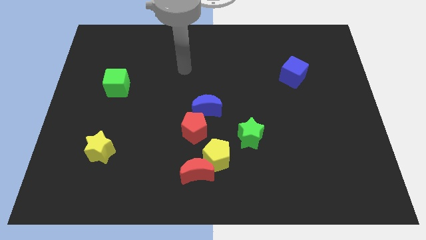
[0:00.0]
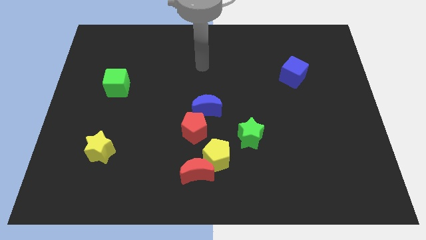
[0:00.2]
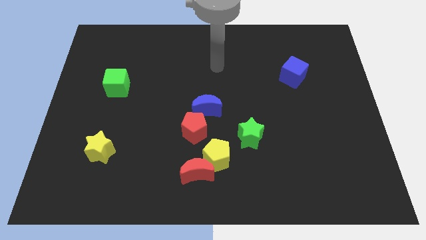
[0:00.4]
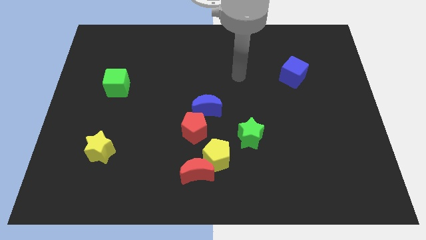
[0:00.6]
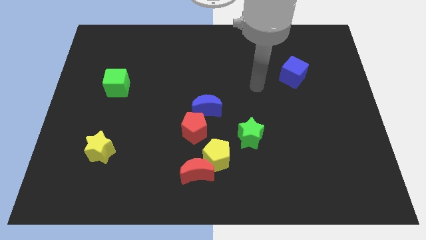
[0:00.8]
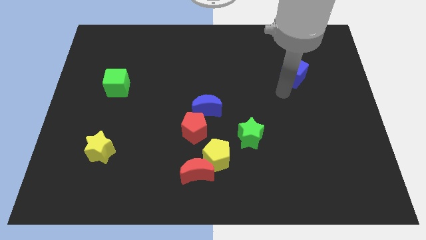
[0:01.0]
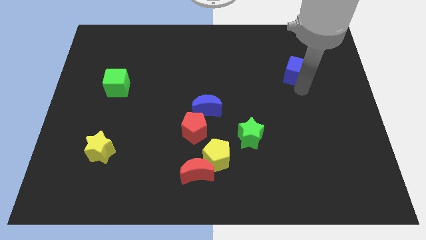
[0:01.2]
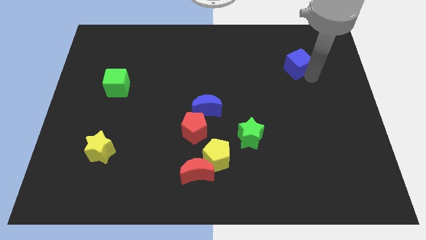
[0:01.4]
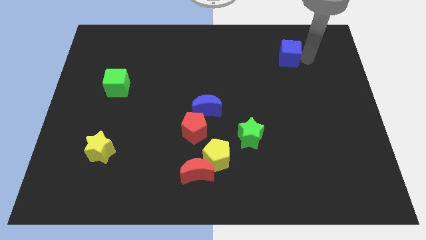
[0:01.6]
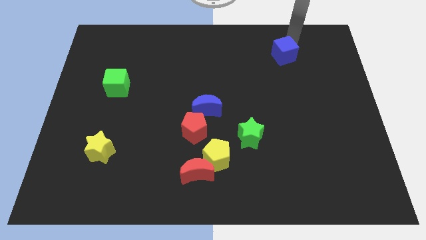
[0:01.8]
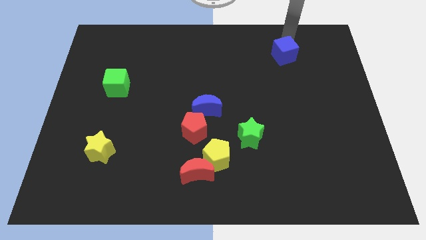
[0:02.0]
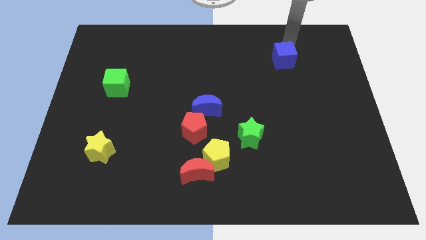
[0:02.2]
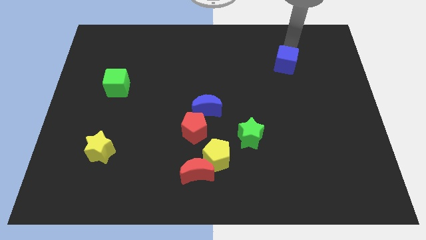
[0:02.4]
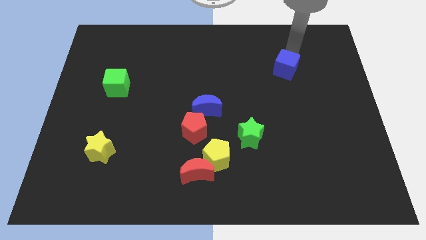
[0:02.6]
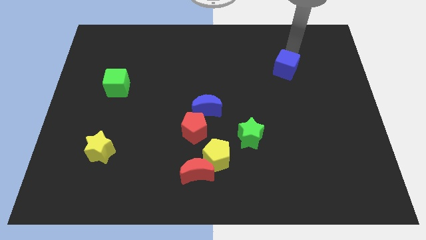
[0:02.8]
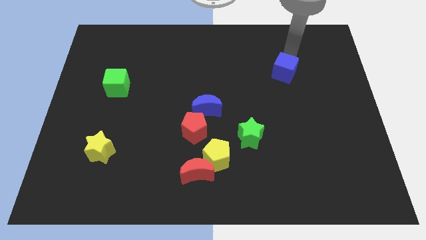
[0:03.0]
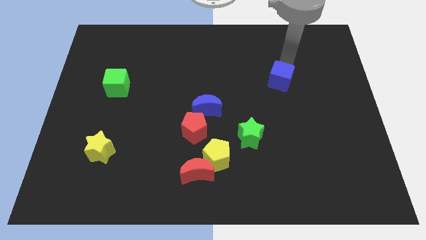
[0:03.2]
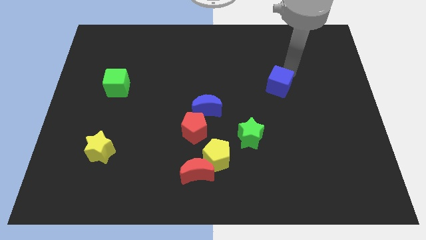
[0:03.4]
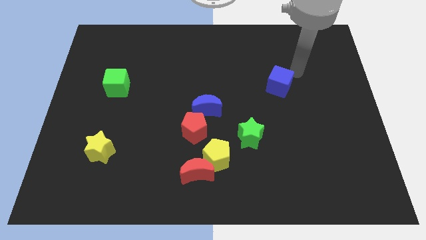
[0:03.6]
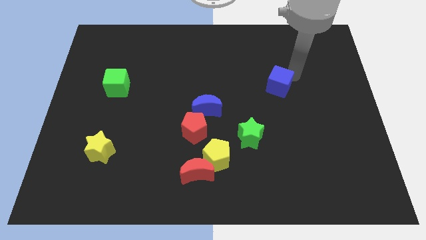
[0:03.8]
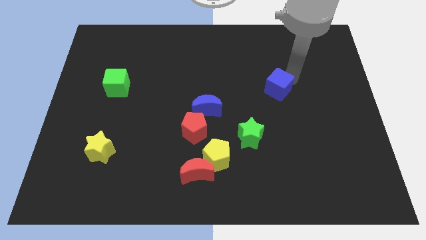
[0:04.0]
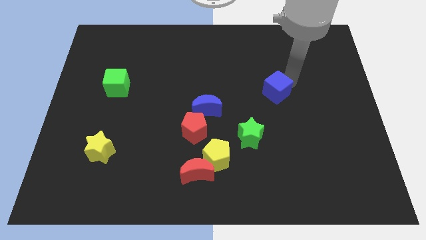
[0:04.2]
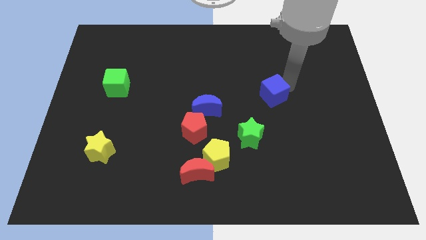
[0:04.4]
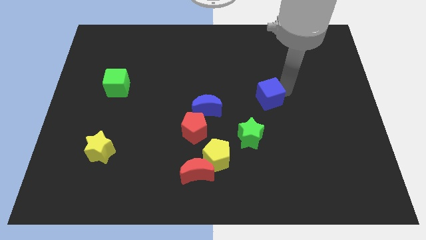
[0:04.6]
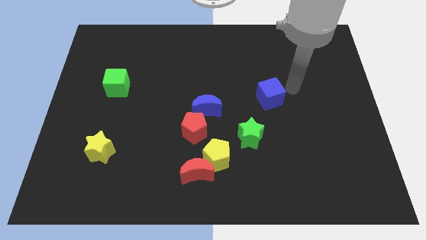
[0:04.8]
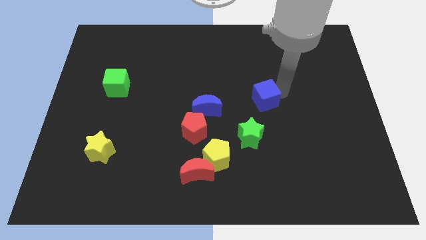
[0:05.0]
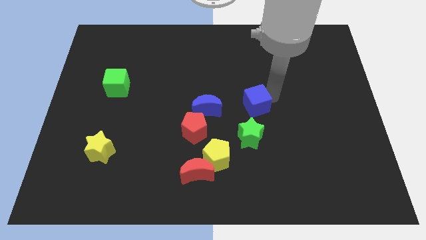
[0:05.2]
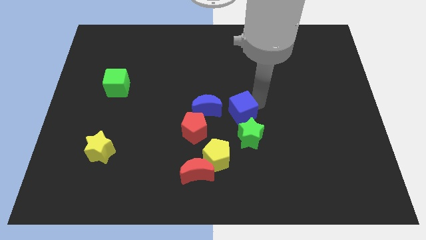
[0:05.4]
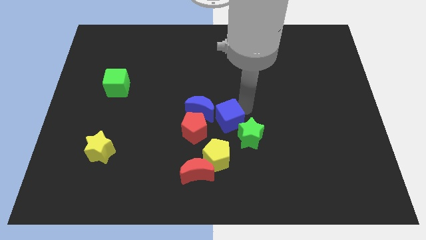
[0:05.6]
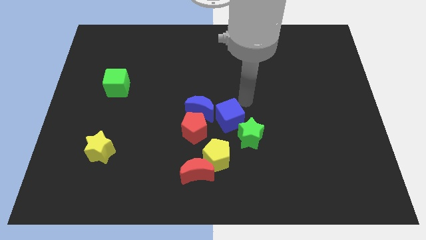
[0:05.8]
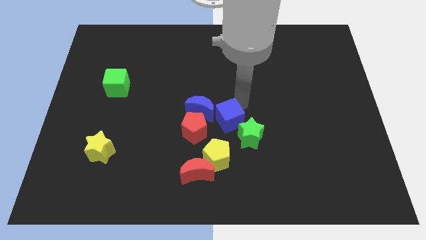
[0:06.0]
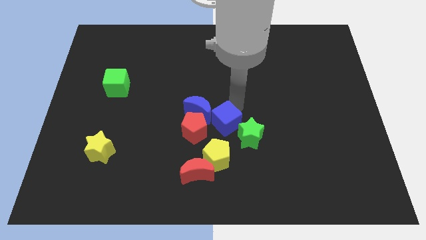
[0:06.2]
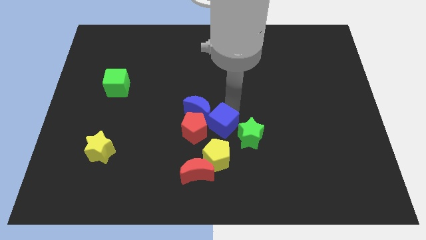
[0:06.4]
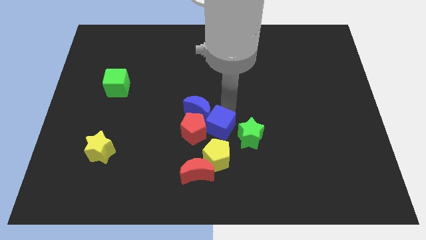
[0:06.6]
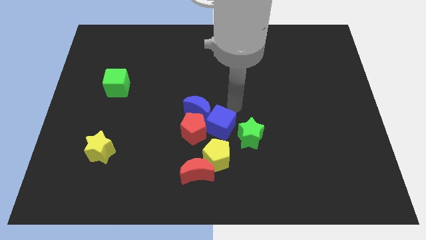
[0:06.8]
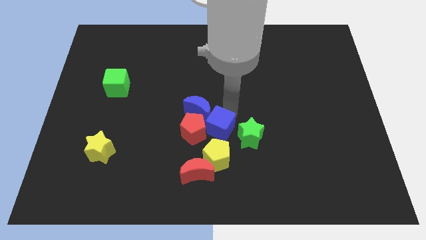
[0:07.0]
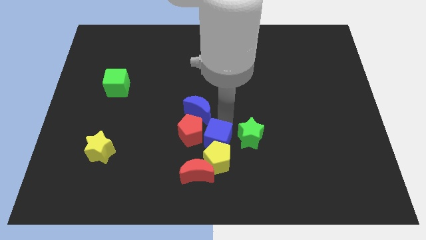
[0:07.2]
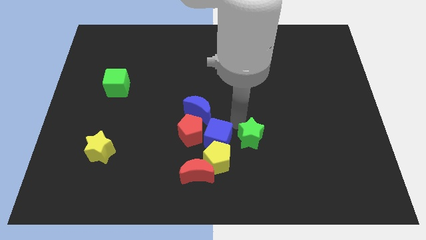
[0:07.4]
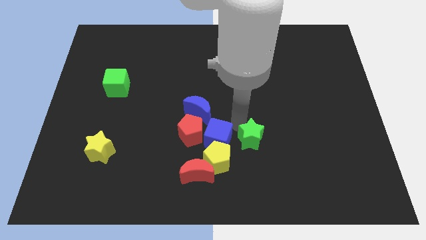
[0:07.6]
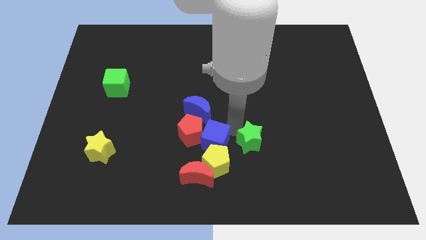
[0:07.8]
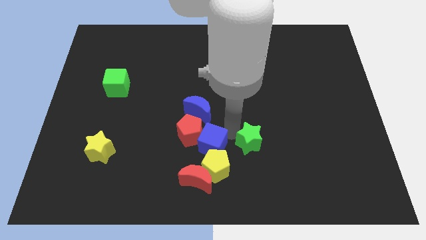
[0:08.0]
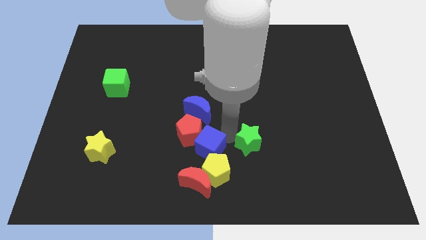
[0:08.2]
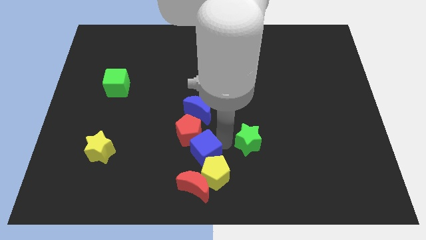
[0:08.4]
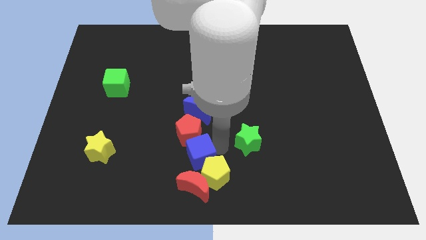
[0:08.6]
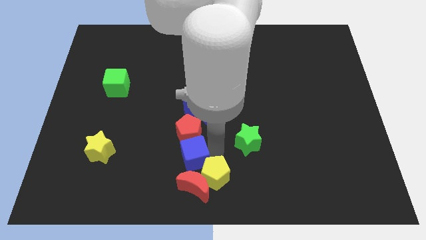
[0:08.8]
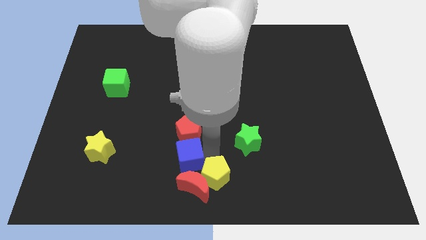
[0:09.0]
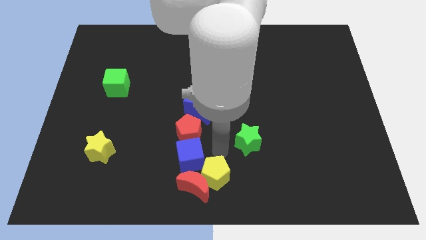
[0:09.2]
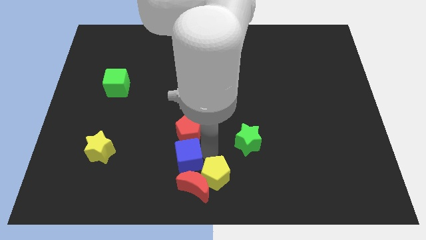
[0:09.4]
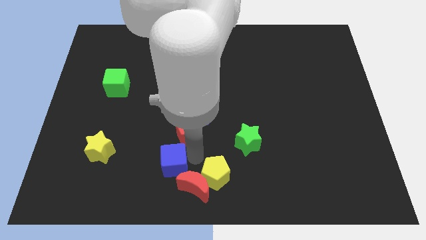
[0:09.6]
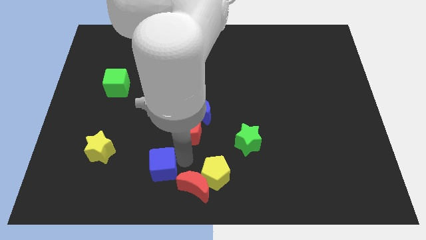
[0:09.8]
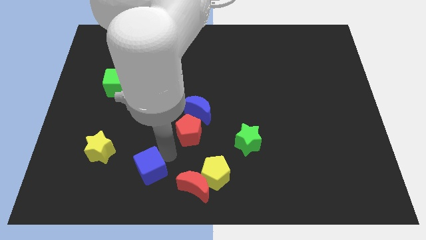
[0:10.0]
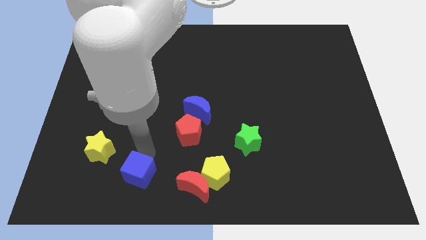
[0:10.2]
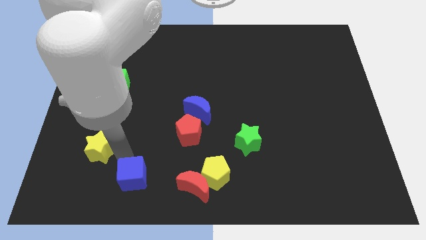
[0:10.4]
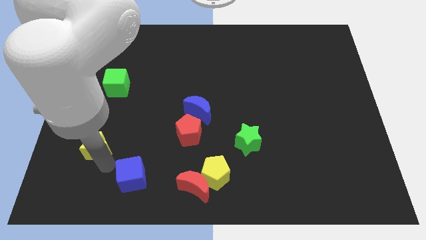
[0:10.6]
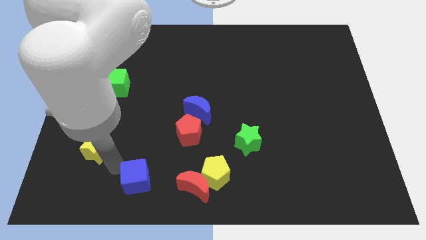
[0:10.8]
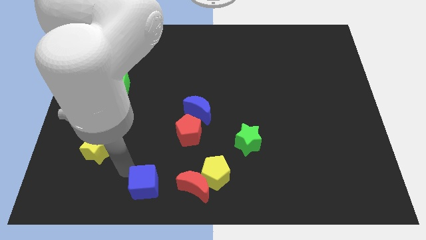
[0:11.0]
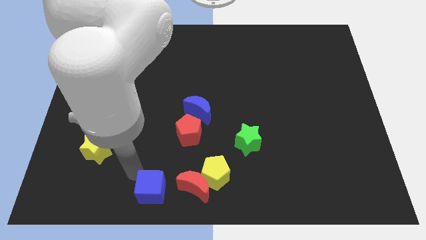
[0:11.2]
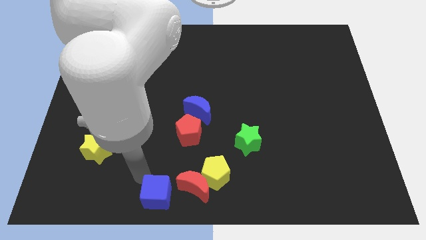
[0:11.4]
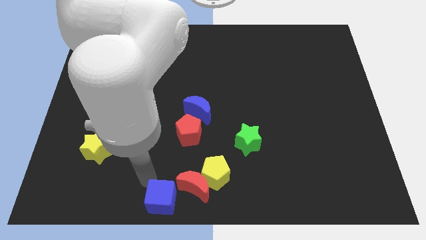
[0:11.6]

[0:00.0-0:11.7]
slide the blue cube diagonally down and to the left of the yellow pentagon

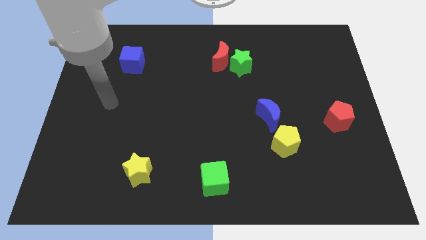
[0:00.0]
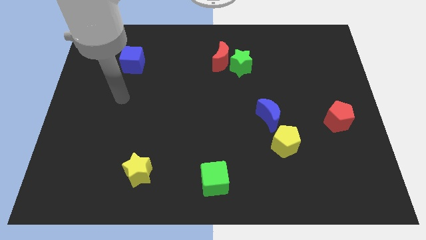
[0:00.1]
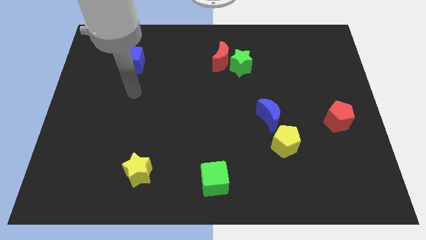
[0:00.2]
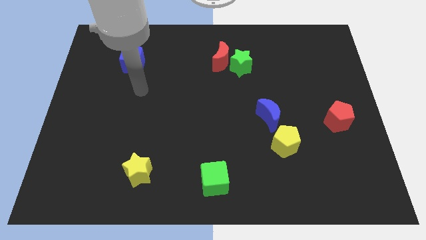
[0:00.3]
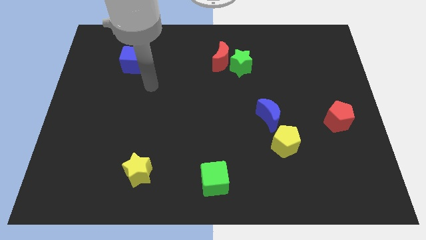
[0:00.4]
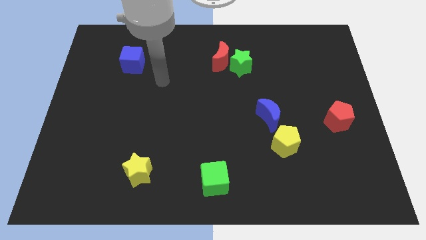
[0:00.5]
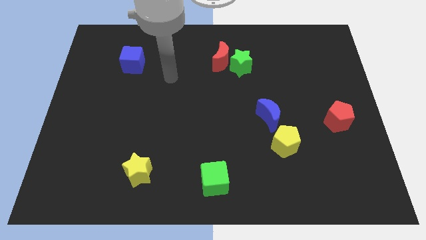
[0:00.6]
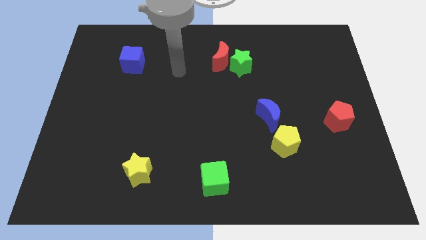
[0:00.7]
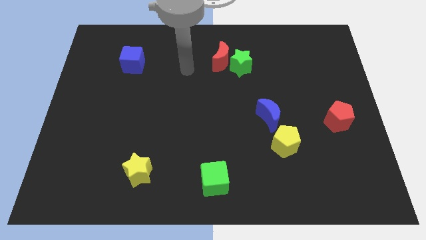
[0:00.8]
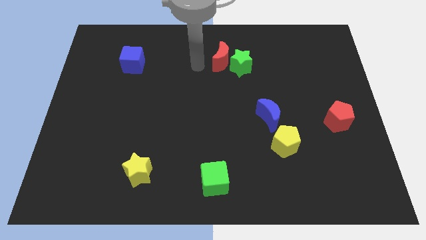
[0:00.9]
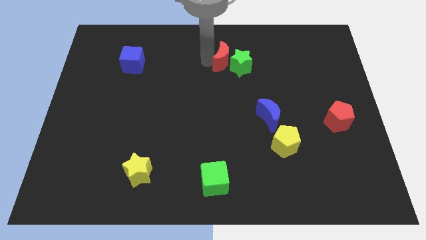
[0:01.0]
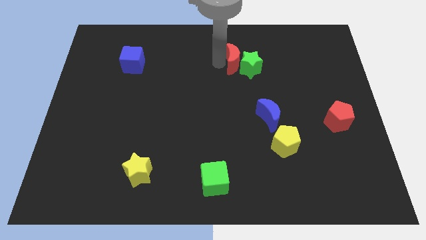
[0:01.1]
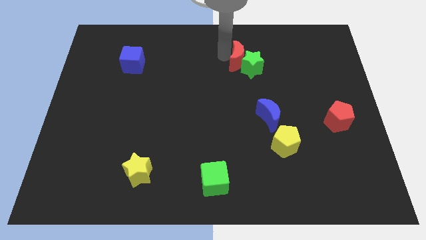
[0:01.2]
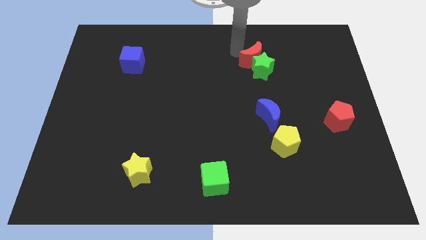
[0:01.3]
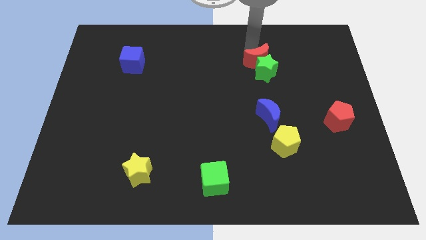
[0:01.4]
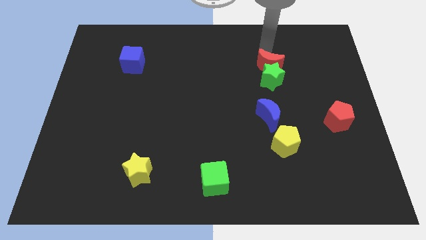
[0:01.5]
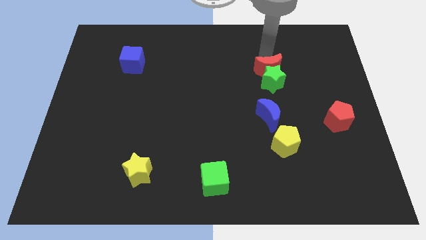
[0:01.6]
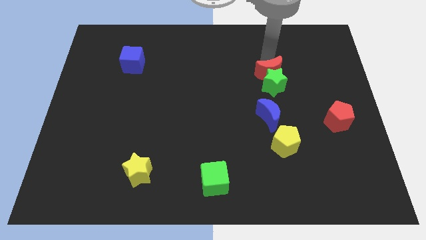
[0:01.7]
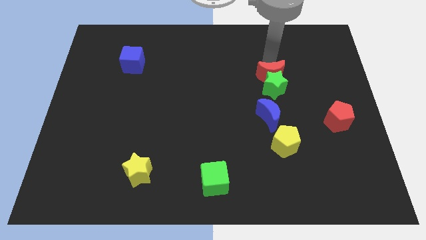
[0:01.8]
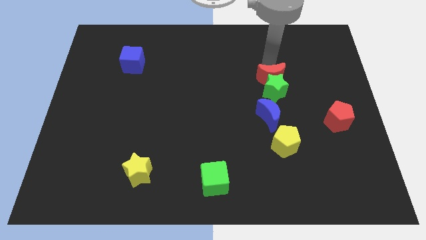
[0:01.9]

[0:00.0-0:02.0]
put the green star above the yellow pentagon

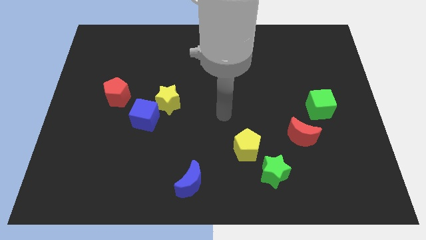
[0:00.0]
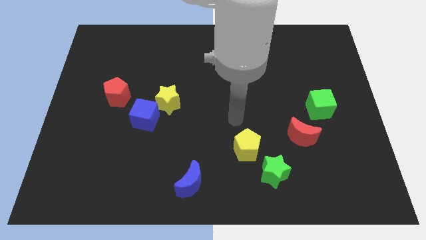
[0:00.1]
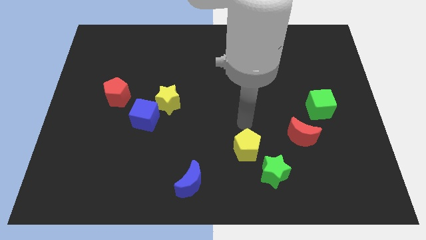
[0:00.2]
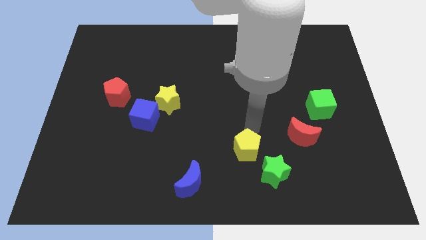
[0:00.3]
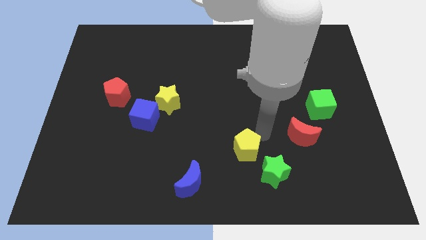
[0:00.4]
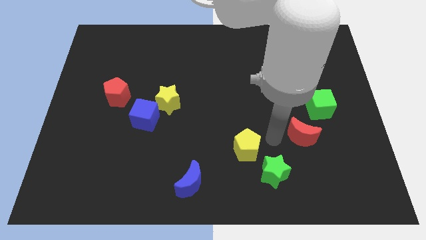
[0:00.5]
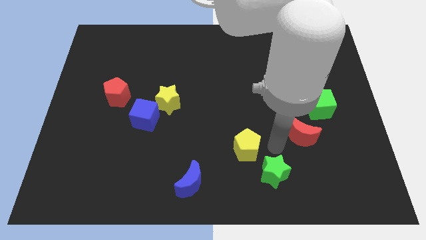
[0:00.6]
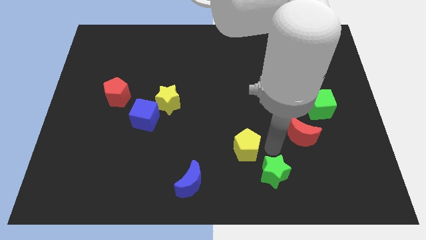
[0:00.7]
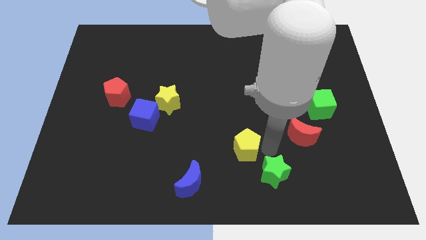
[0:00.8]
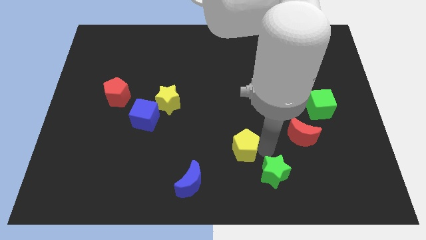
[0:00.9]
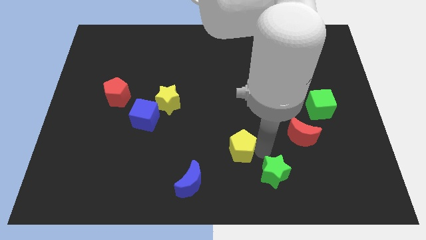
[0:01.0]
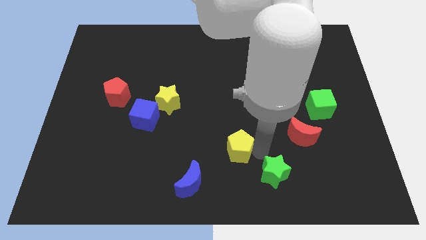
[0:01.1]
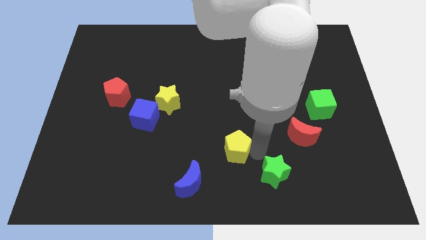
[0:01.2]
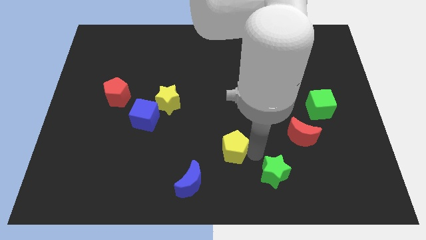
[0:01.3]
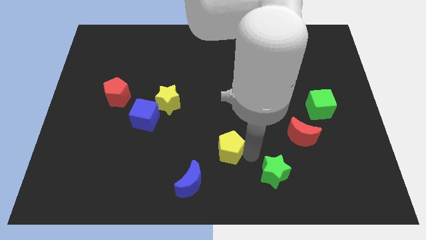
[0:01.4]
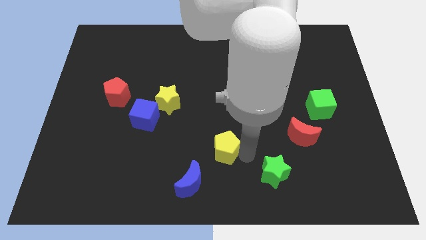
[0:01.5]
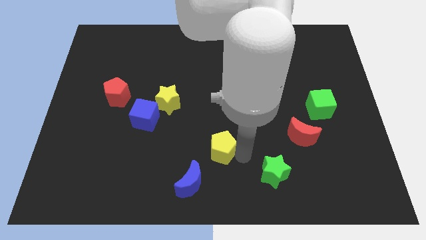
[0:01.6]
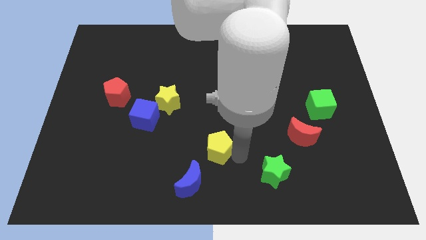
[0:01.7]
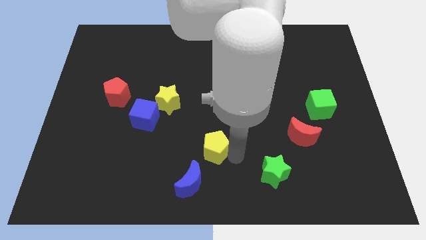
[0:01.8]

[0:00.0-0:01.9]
put the yellow pentagon above the blue moon
